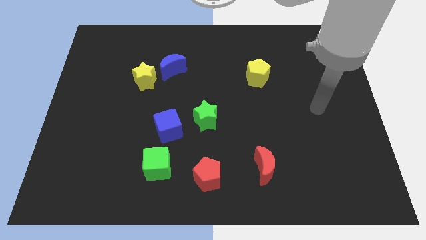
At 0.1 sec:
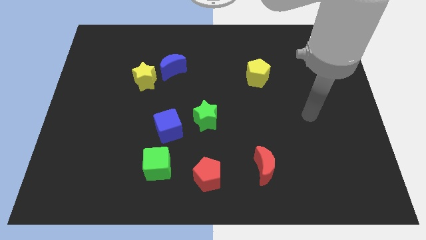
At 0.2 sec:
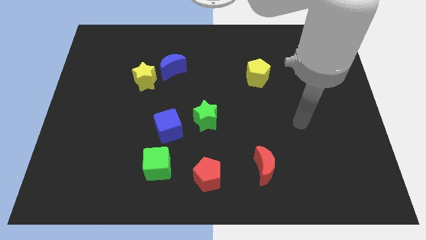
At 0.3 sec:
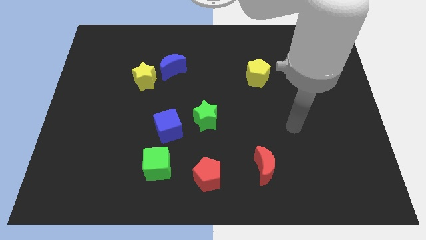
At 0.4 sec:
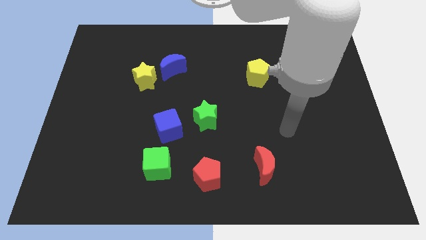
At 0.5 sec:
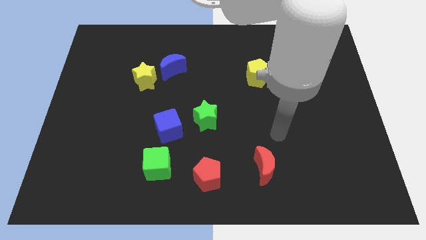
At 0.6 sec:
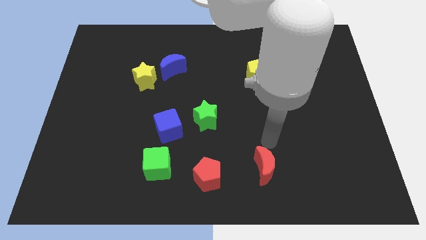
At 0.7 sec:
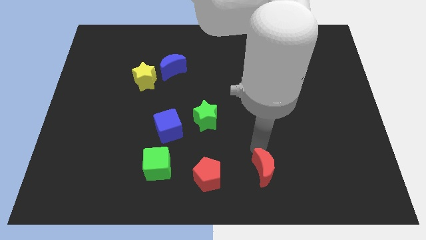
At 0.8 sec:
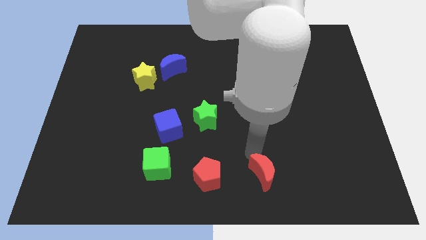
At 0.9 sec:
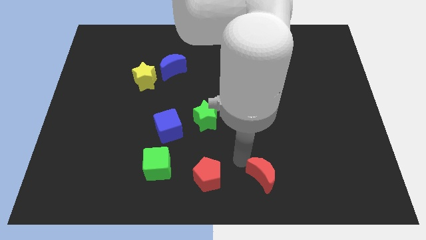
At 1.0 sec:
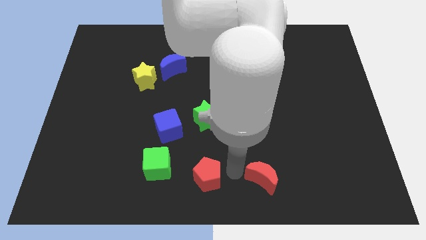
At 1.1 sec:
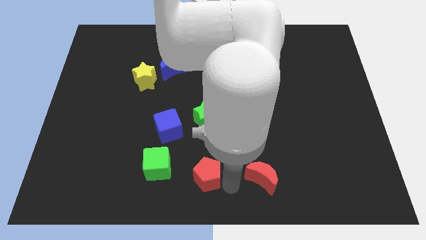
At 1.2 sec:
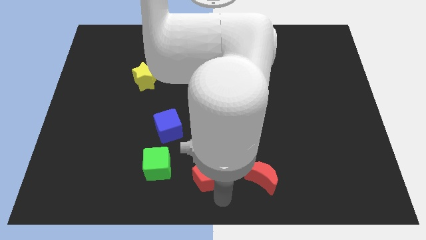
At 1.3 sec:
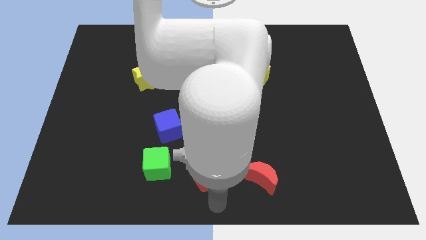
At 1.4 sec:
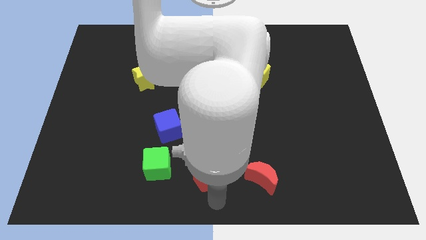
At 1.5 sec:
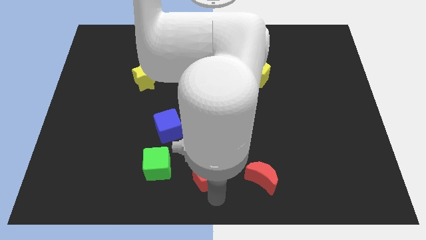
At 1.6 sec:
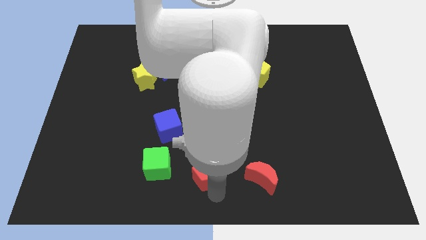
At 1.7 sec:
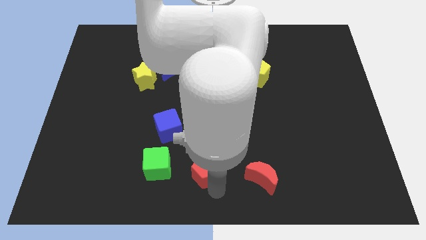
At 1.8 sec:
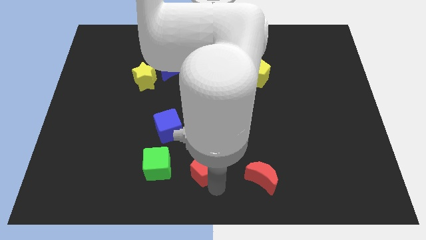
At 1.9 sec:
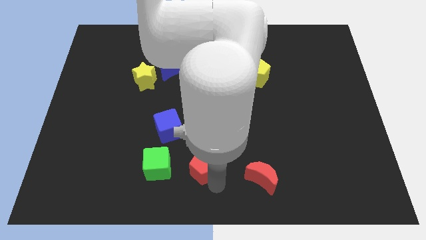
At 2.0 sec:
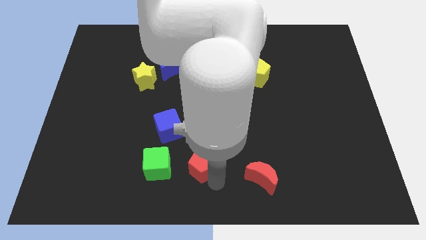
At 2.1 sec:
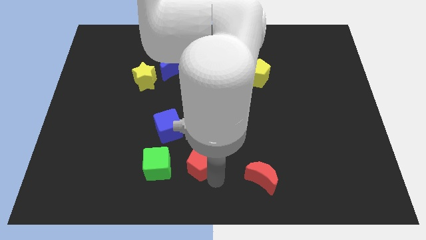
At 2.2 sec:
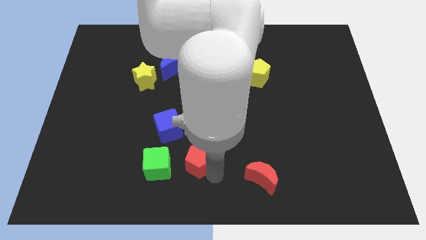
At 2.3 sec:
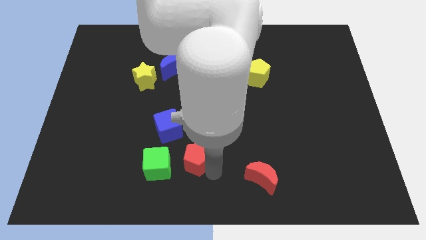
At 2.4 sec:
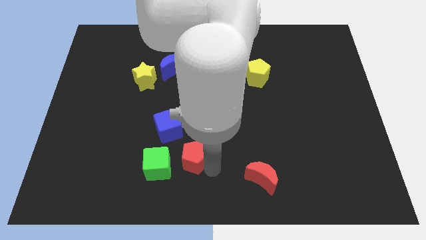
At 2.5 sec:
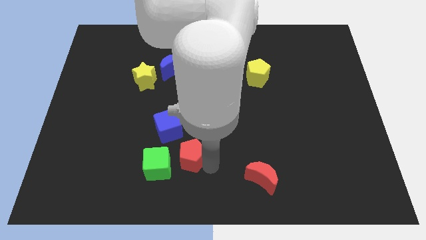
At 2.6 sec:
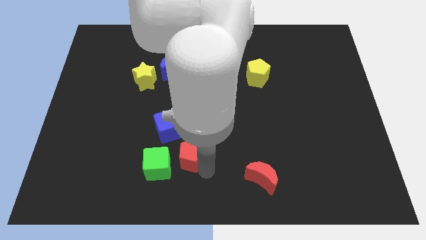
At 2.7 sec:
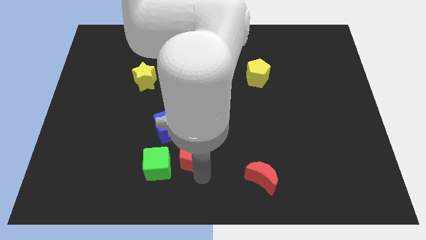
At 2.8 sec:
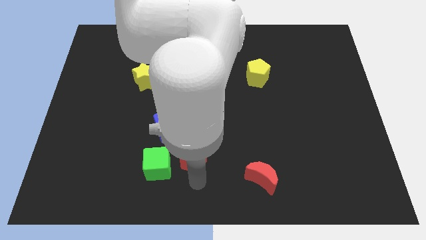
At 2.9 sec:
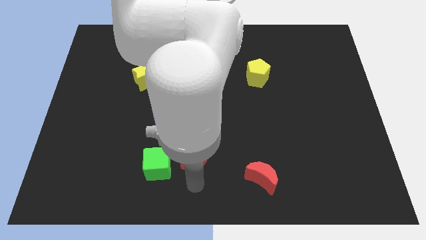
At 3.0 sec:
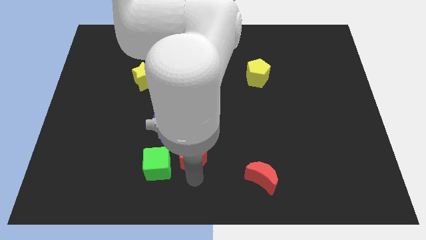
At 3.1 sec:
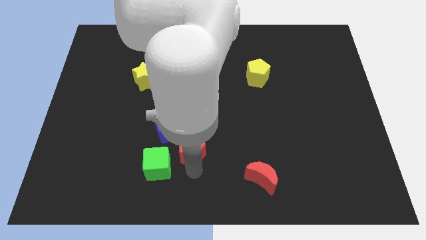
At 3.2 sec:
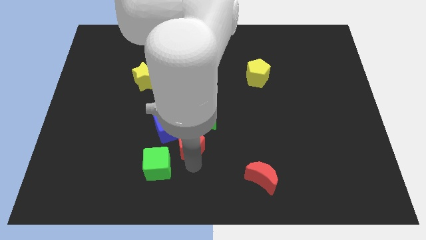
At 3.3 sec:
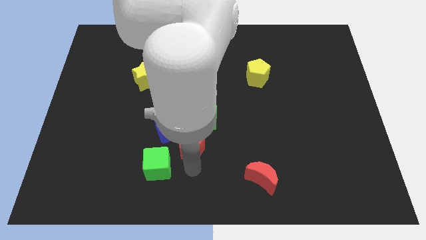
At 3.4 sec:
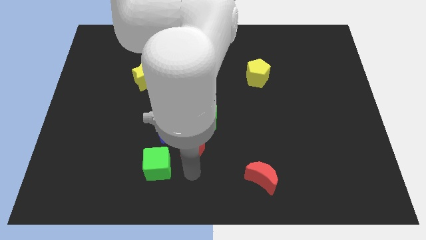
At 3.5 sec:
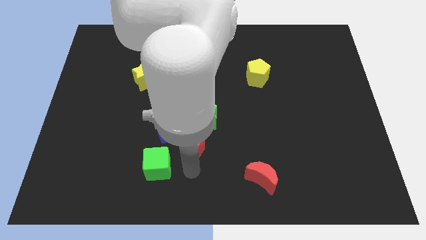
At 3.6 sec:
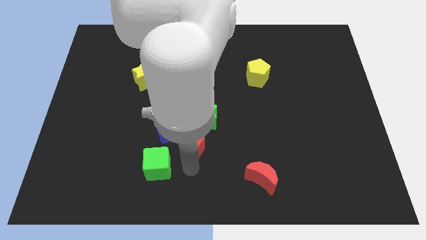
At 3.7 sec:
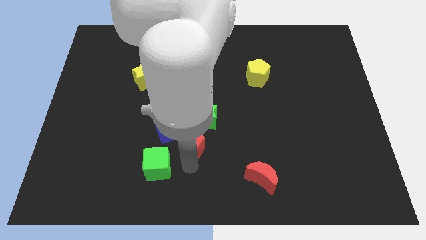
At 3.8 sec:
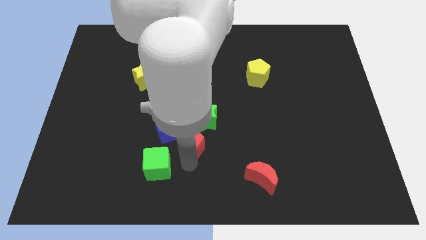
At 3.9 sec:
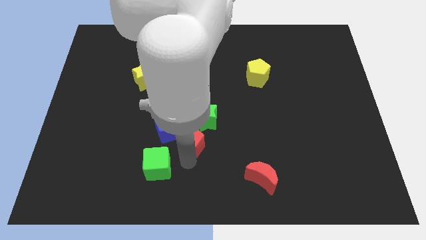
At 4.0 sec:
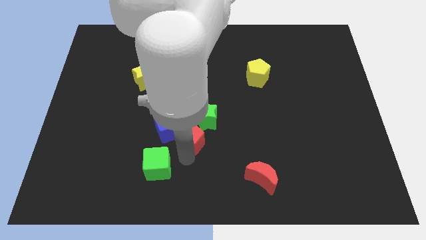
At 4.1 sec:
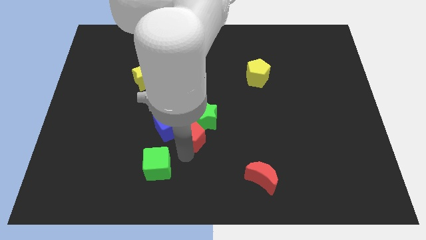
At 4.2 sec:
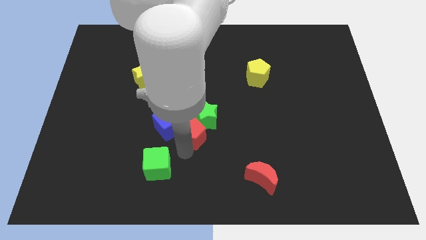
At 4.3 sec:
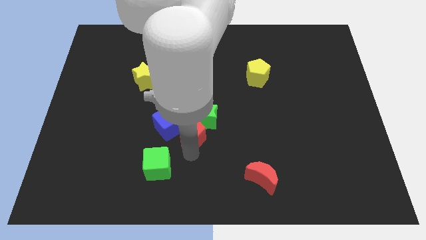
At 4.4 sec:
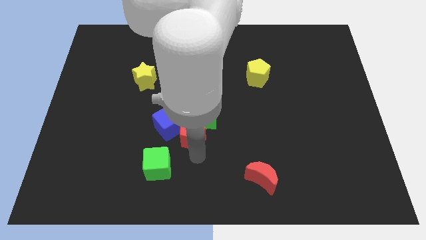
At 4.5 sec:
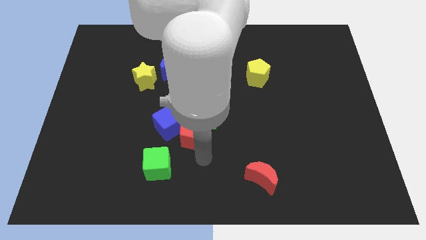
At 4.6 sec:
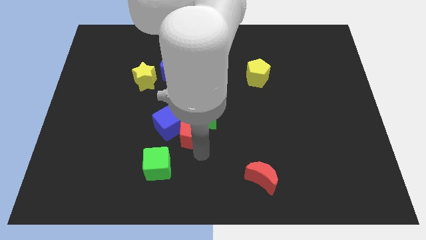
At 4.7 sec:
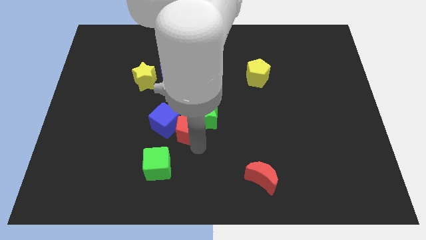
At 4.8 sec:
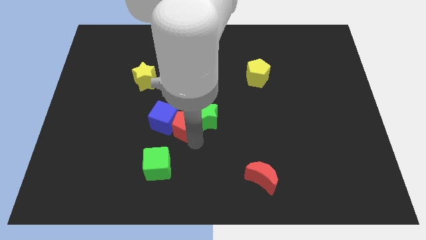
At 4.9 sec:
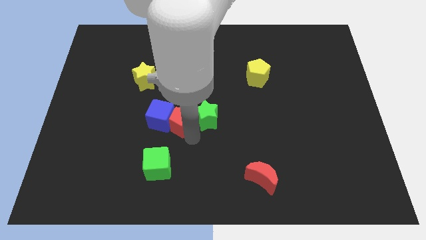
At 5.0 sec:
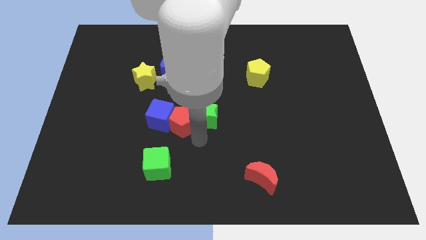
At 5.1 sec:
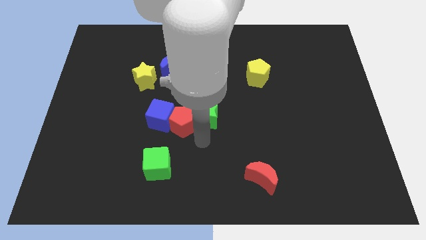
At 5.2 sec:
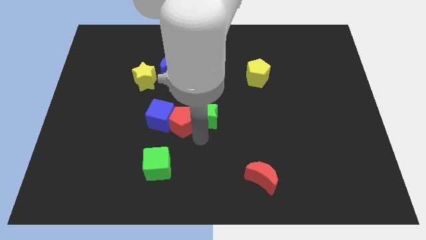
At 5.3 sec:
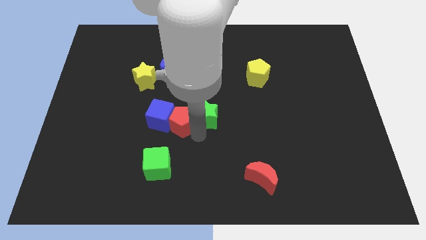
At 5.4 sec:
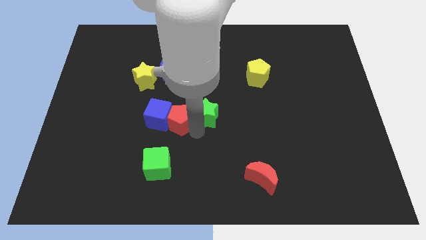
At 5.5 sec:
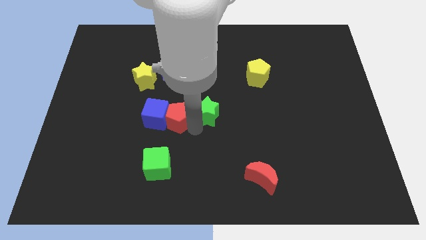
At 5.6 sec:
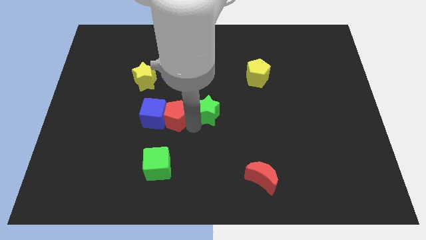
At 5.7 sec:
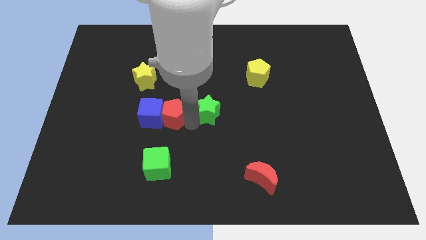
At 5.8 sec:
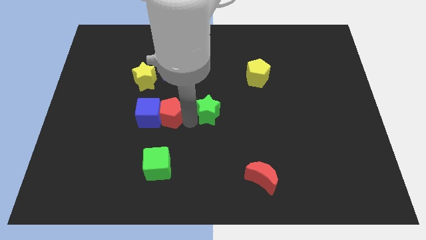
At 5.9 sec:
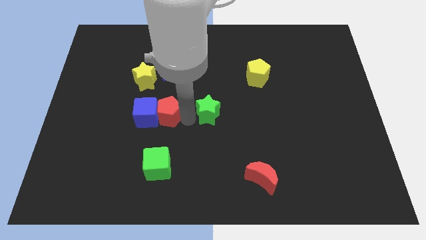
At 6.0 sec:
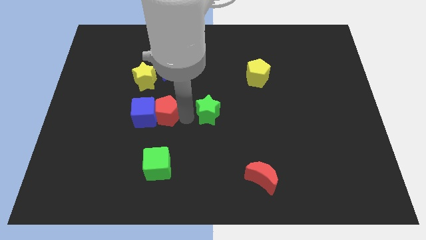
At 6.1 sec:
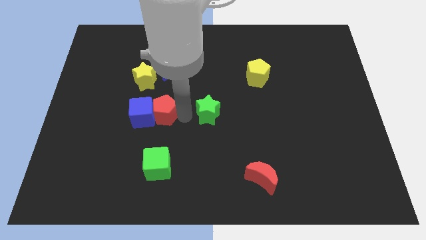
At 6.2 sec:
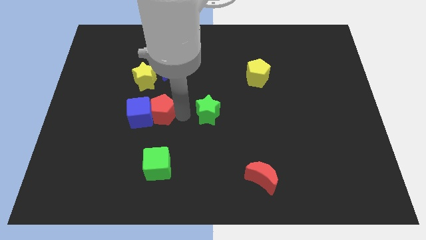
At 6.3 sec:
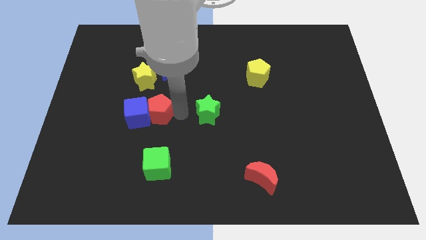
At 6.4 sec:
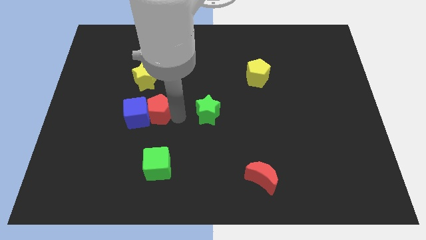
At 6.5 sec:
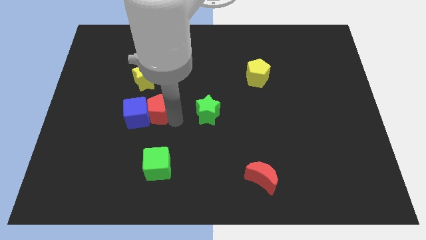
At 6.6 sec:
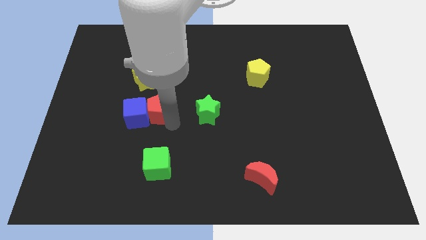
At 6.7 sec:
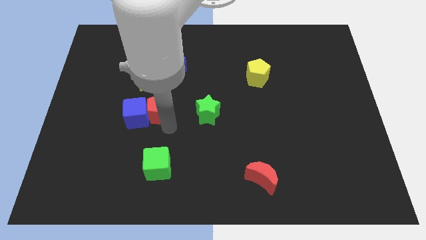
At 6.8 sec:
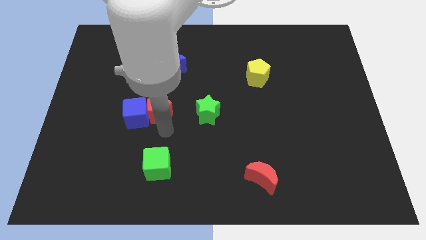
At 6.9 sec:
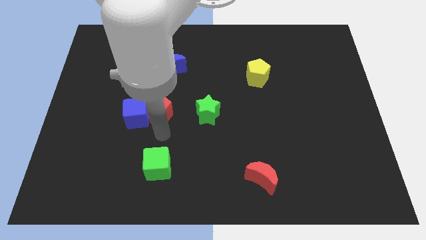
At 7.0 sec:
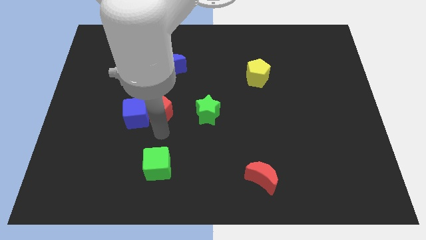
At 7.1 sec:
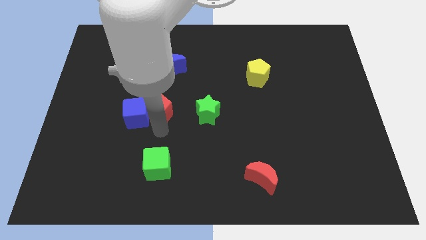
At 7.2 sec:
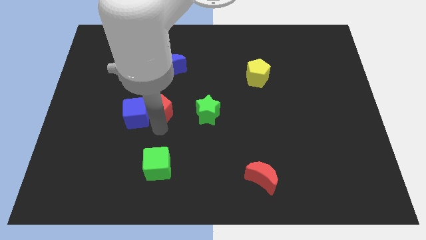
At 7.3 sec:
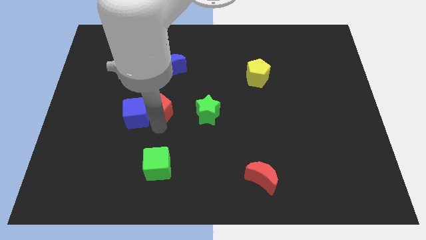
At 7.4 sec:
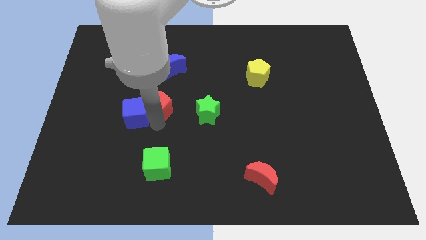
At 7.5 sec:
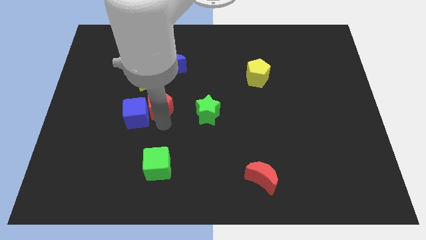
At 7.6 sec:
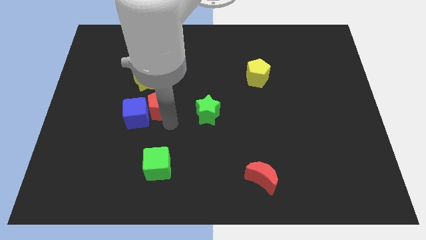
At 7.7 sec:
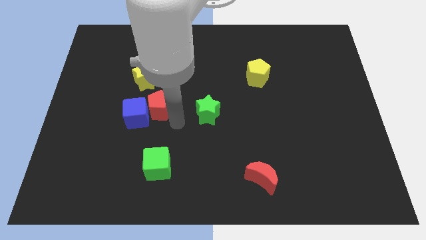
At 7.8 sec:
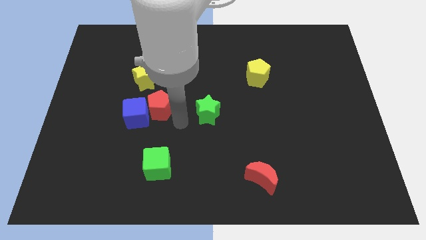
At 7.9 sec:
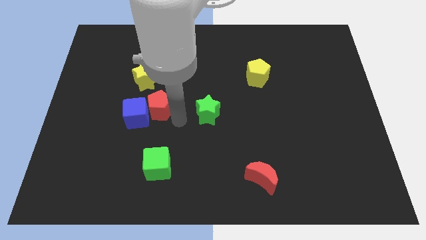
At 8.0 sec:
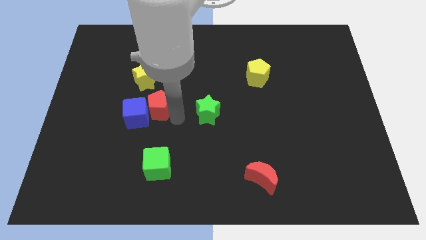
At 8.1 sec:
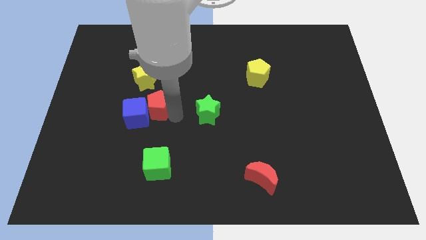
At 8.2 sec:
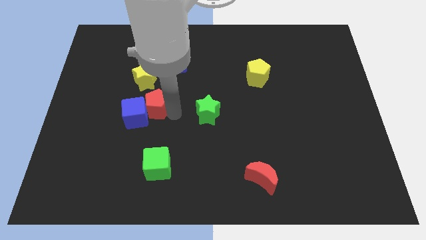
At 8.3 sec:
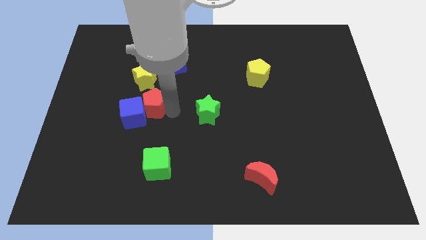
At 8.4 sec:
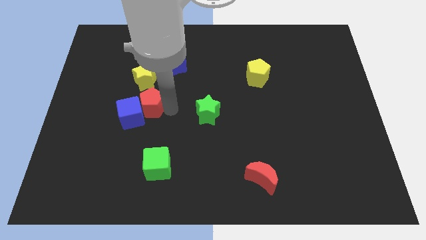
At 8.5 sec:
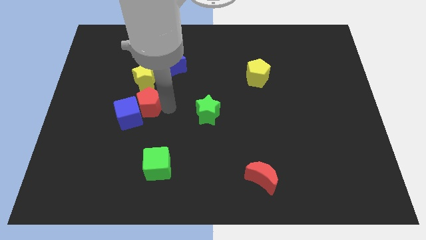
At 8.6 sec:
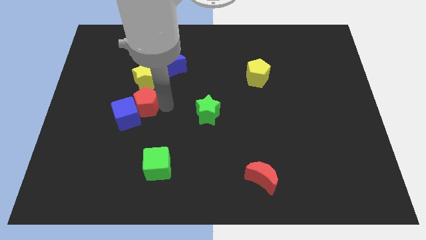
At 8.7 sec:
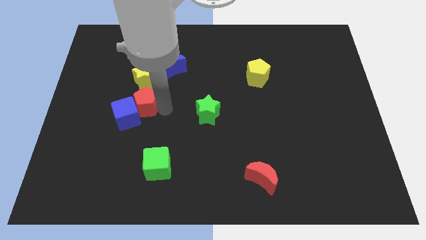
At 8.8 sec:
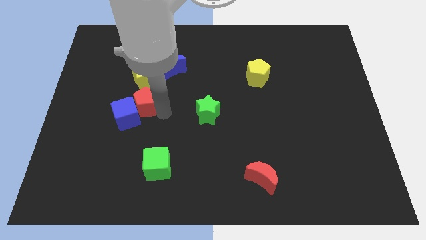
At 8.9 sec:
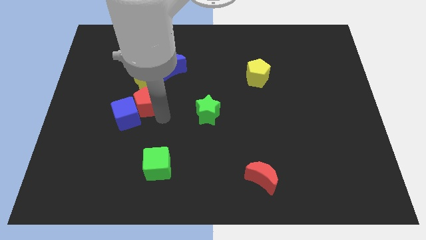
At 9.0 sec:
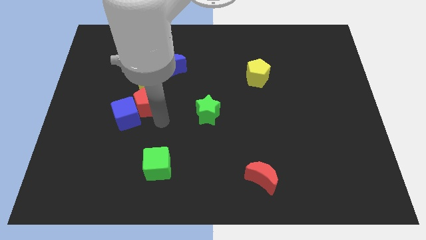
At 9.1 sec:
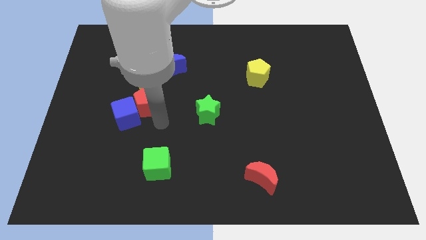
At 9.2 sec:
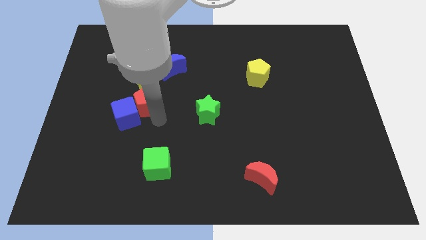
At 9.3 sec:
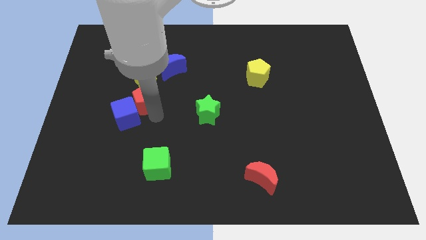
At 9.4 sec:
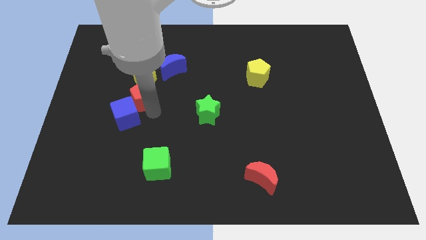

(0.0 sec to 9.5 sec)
push the red pentagon to the bottom left side of the blue moon
